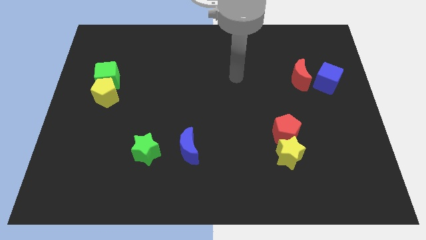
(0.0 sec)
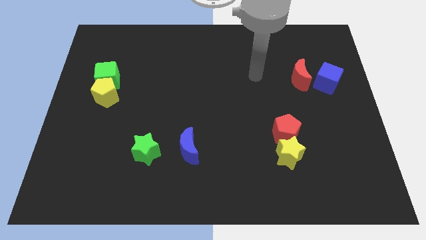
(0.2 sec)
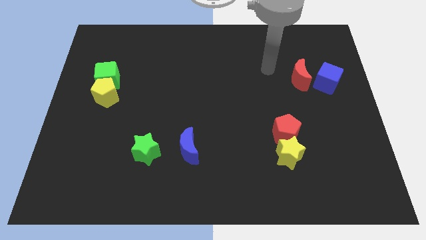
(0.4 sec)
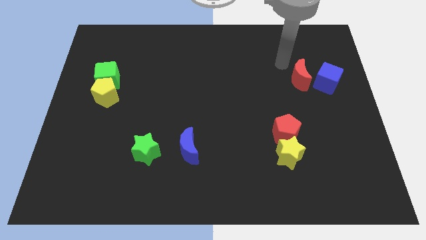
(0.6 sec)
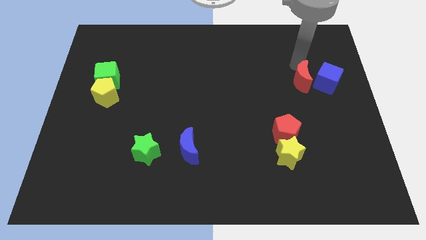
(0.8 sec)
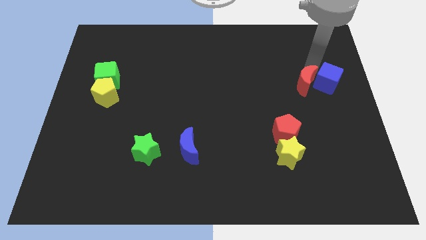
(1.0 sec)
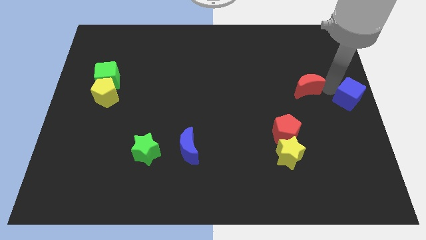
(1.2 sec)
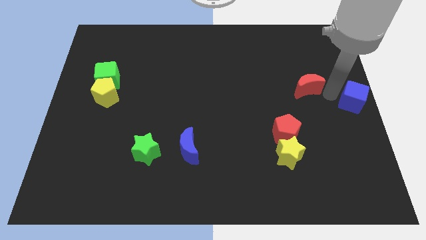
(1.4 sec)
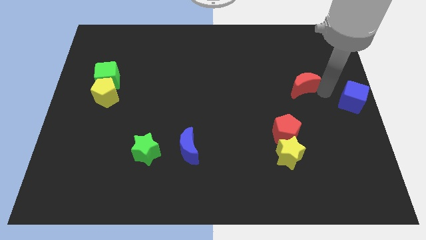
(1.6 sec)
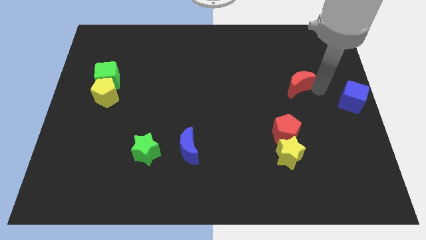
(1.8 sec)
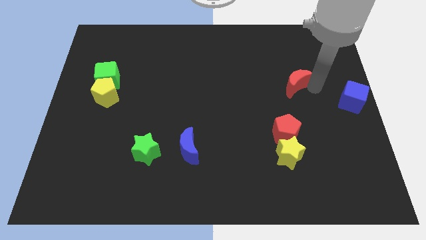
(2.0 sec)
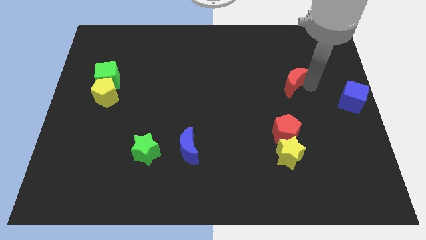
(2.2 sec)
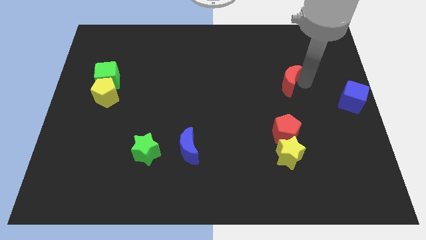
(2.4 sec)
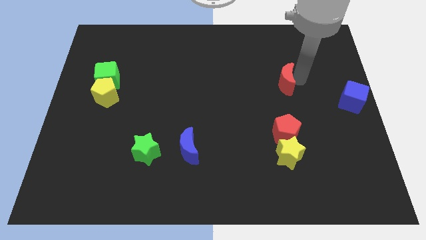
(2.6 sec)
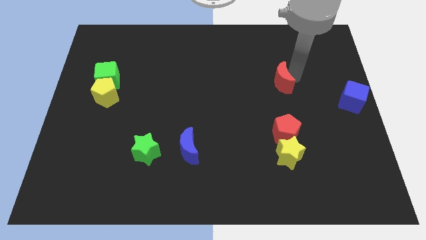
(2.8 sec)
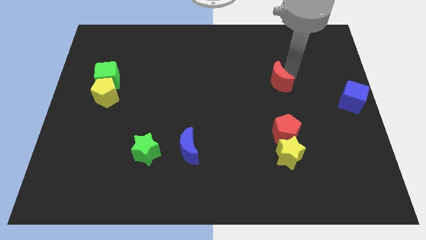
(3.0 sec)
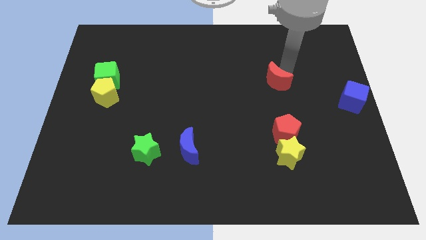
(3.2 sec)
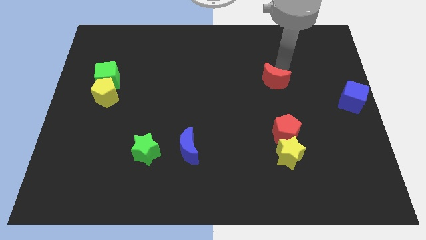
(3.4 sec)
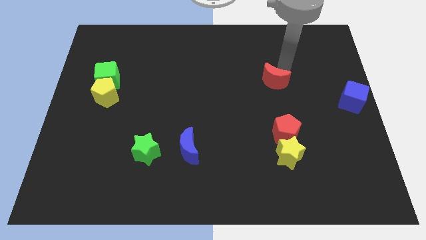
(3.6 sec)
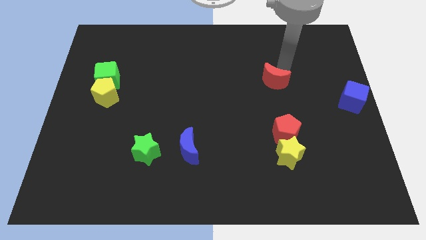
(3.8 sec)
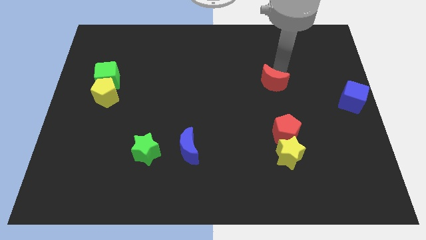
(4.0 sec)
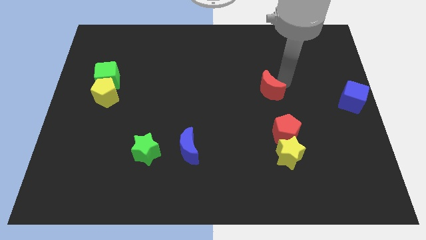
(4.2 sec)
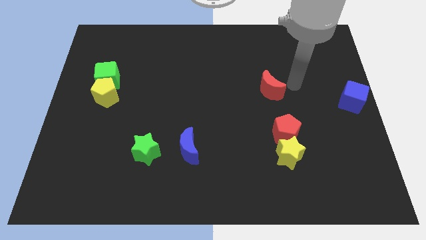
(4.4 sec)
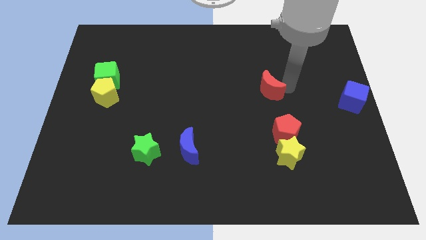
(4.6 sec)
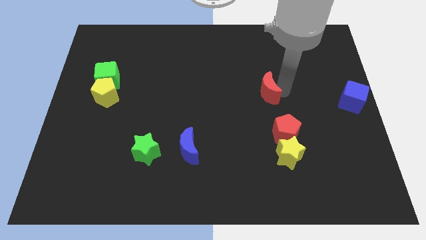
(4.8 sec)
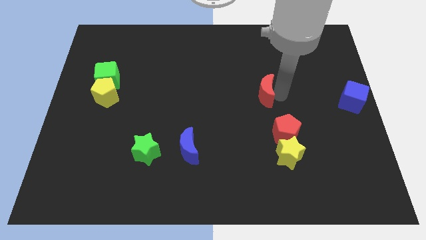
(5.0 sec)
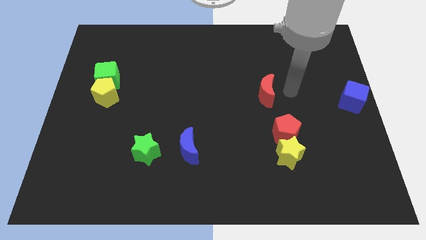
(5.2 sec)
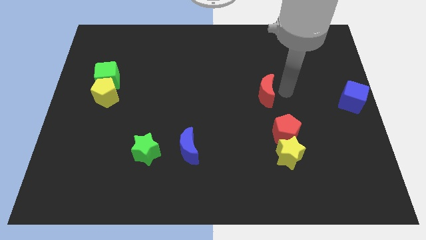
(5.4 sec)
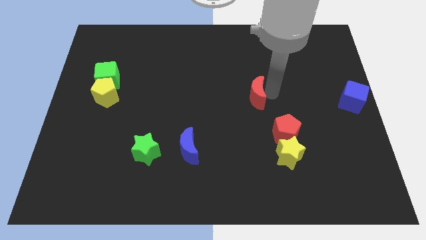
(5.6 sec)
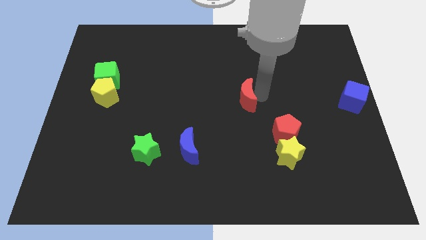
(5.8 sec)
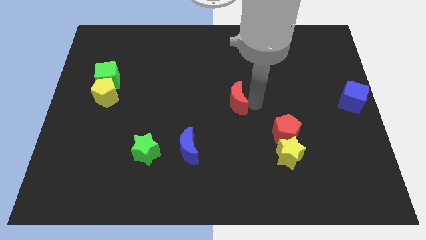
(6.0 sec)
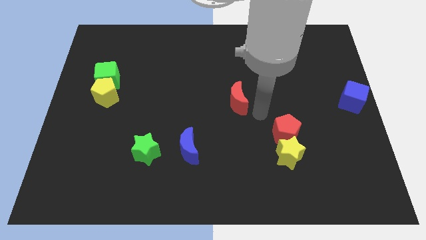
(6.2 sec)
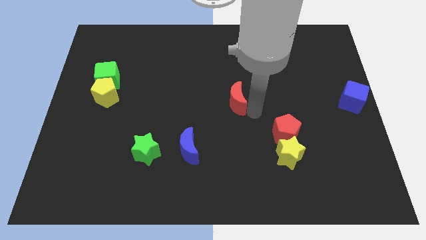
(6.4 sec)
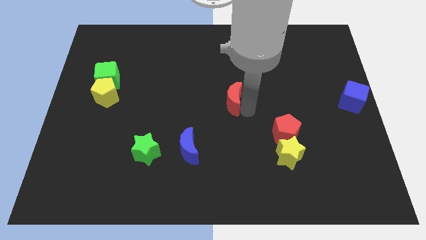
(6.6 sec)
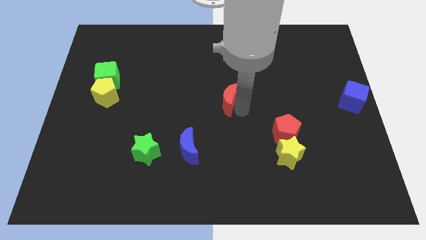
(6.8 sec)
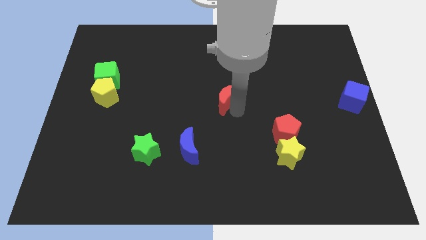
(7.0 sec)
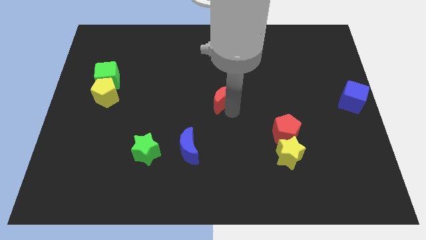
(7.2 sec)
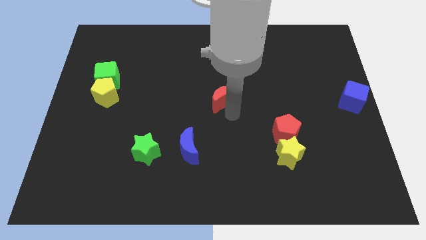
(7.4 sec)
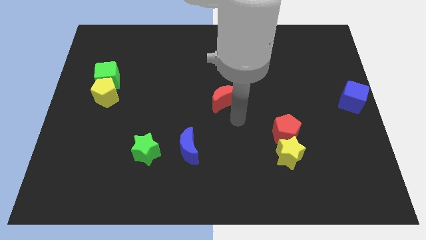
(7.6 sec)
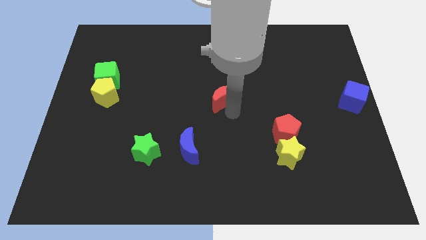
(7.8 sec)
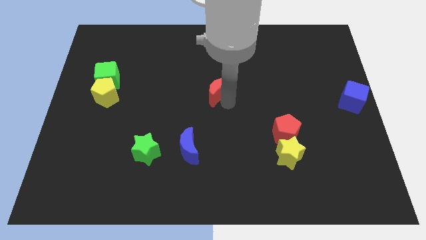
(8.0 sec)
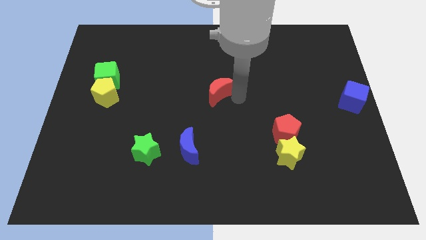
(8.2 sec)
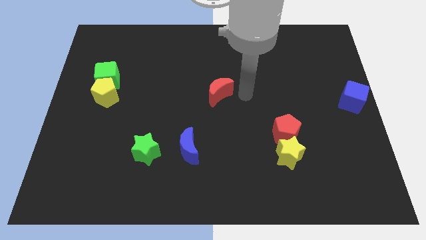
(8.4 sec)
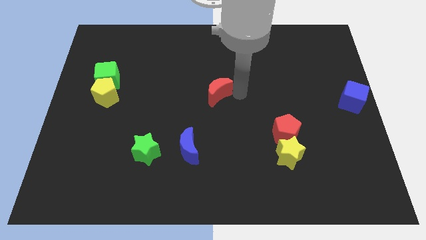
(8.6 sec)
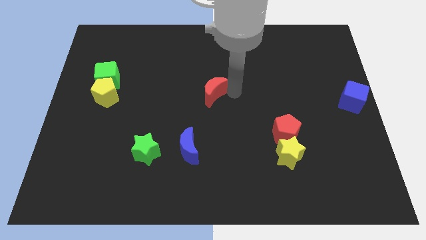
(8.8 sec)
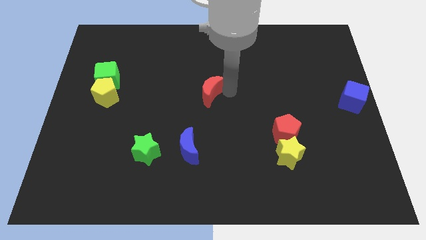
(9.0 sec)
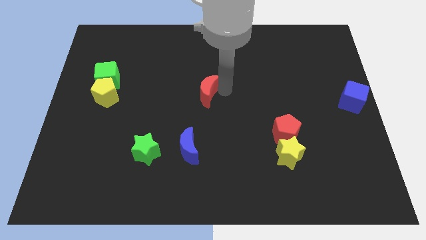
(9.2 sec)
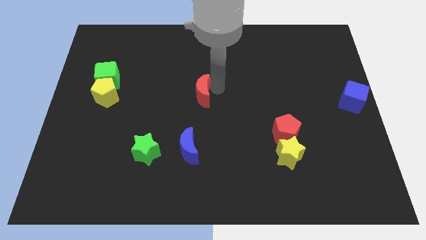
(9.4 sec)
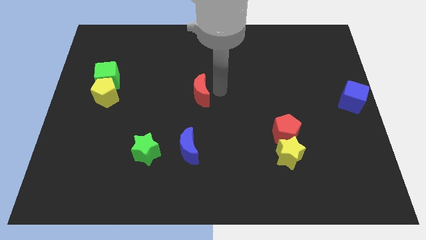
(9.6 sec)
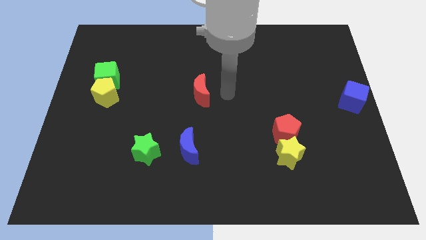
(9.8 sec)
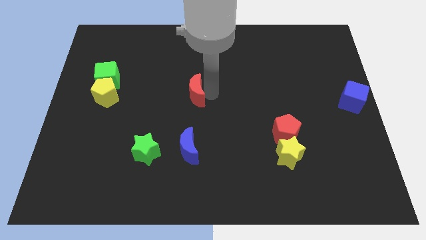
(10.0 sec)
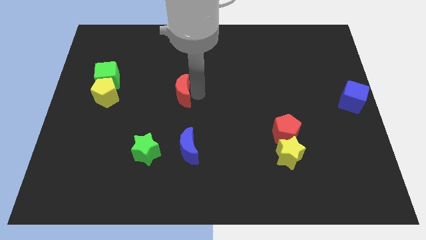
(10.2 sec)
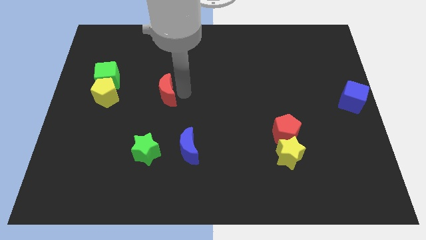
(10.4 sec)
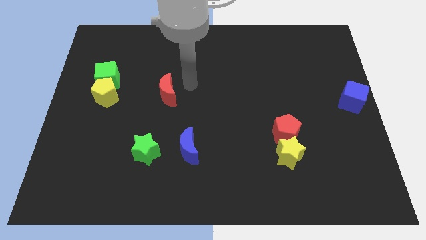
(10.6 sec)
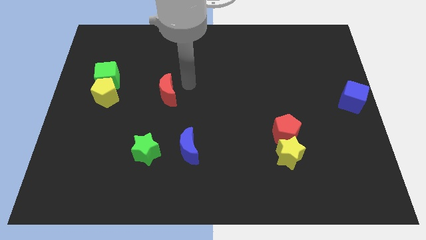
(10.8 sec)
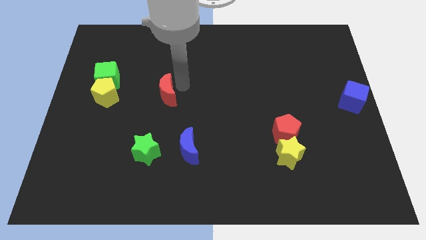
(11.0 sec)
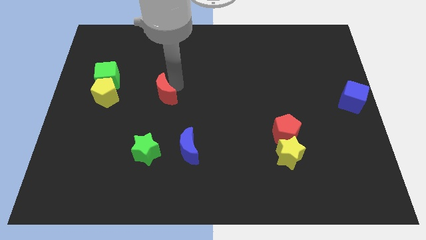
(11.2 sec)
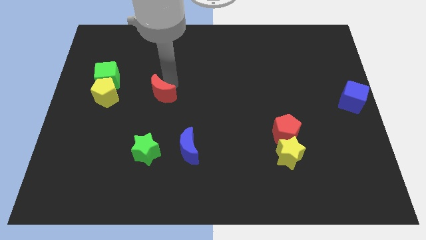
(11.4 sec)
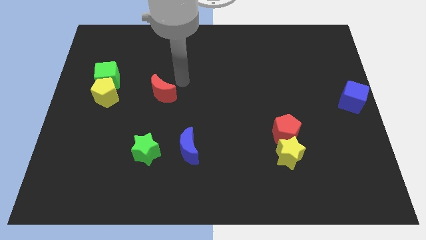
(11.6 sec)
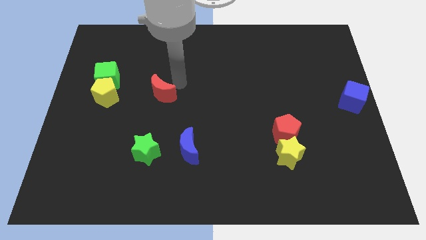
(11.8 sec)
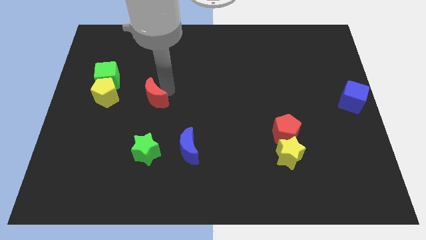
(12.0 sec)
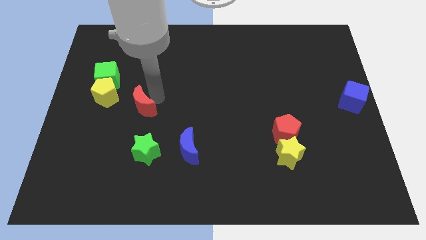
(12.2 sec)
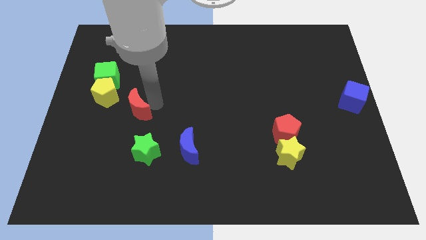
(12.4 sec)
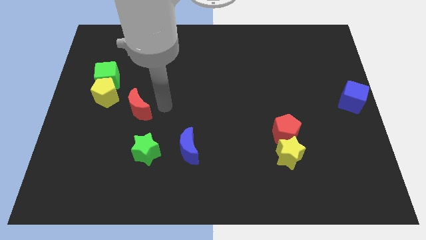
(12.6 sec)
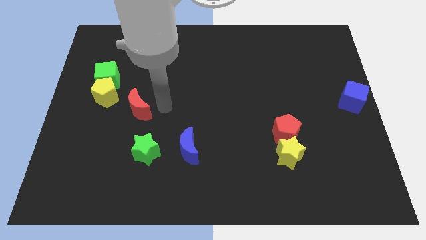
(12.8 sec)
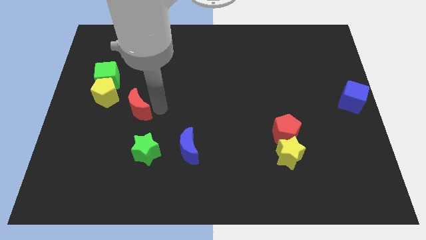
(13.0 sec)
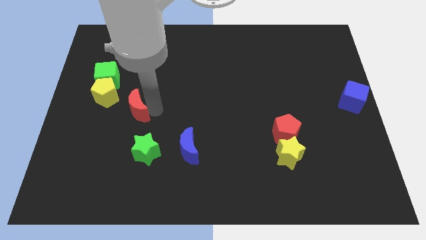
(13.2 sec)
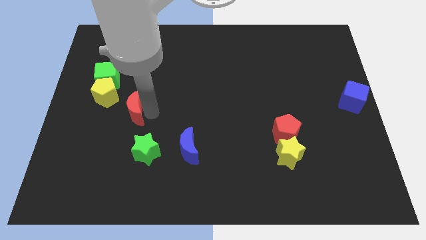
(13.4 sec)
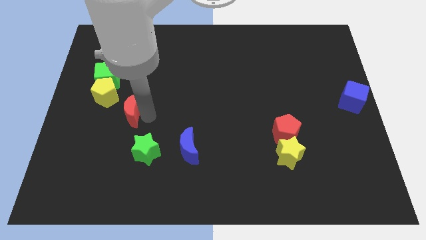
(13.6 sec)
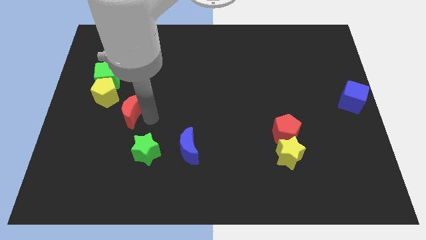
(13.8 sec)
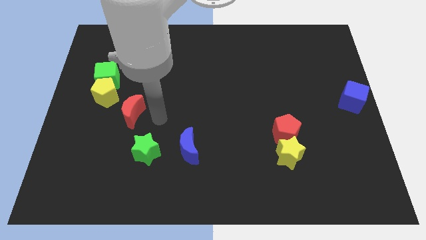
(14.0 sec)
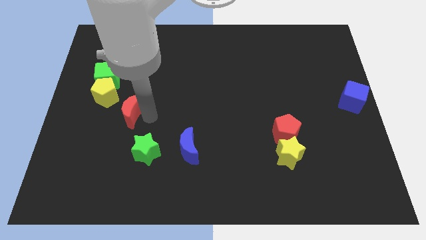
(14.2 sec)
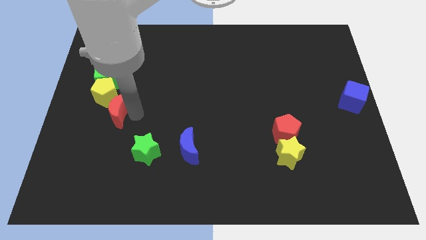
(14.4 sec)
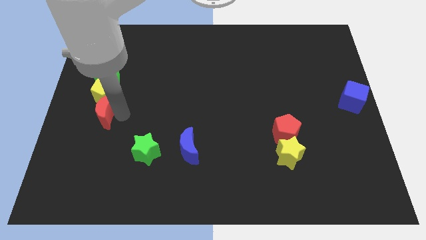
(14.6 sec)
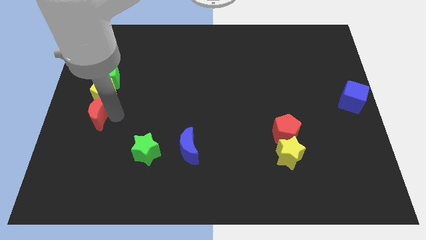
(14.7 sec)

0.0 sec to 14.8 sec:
move the red moon to the left side
